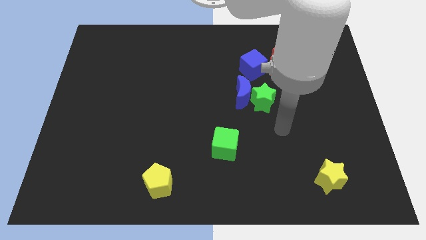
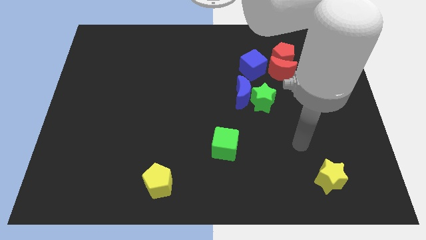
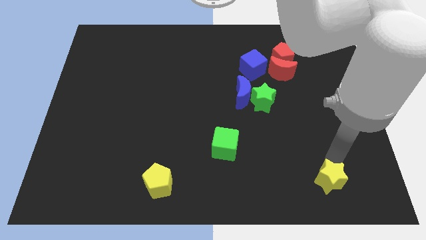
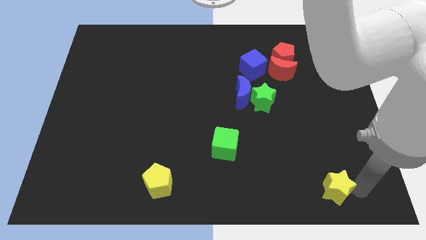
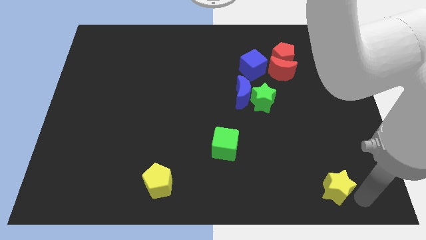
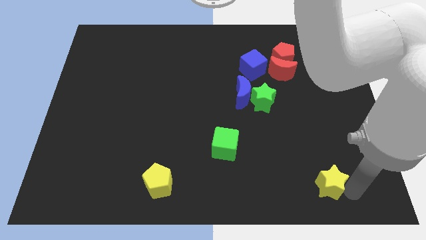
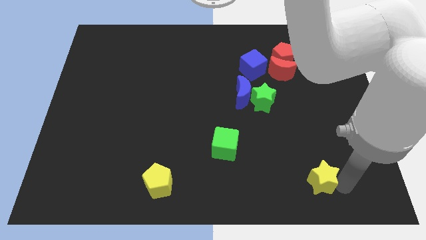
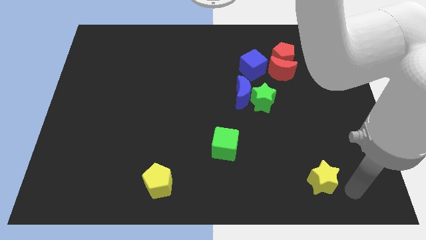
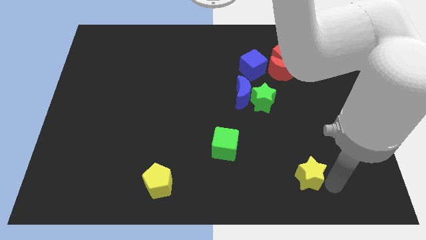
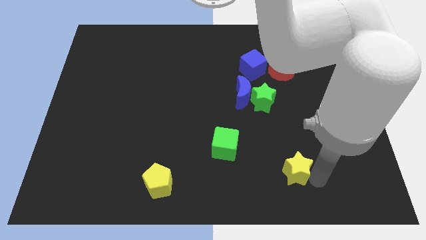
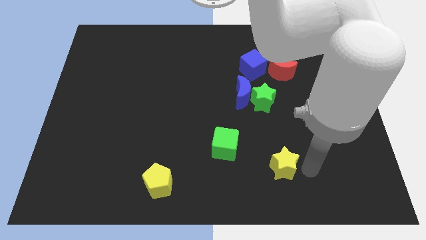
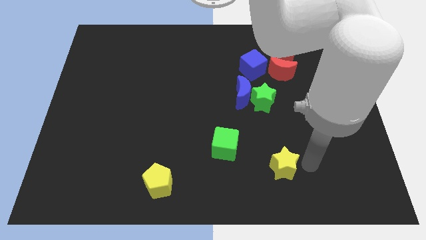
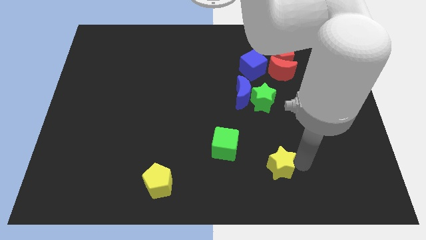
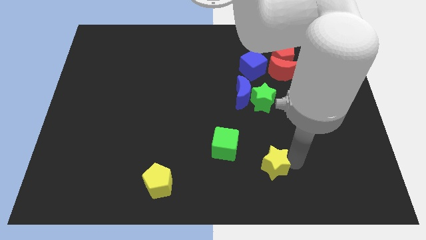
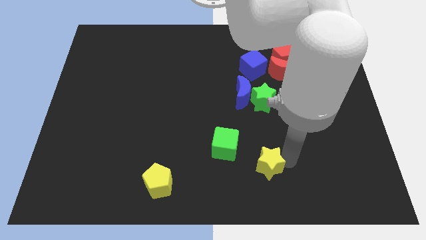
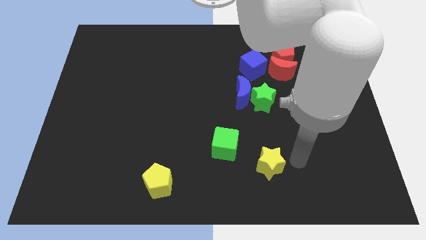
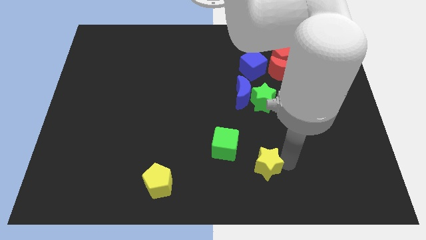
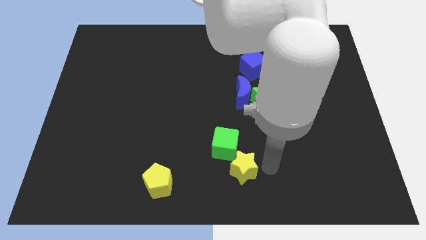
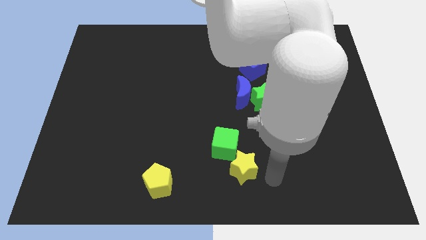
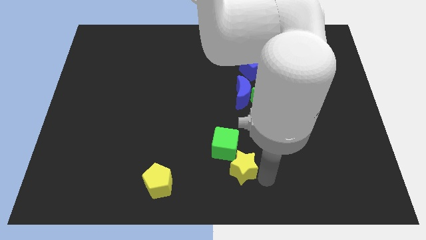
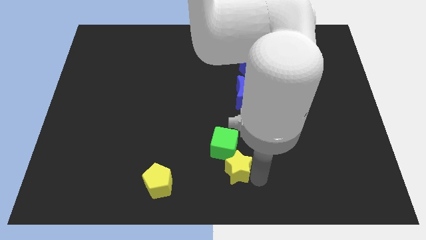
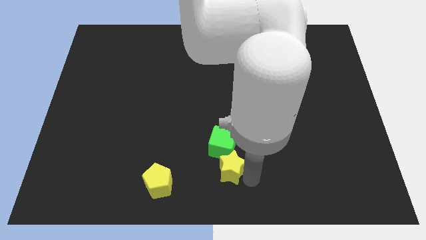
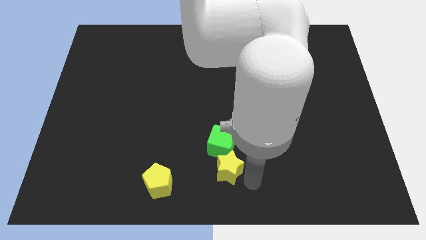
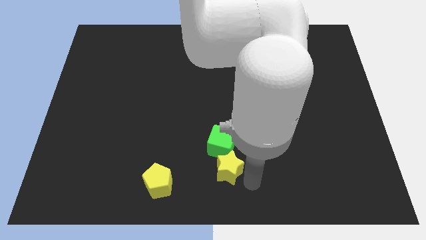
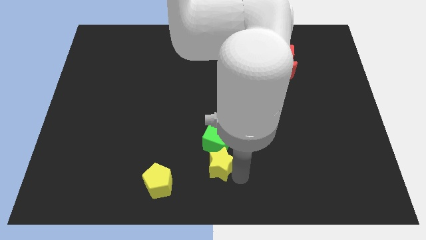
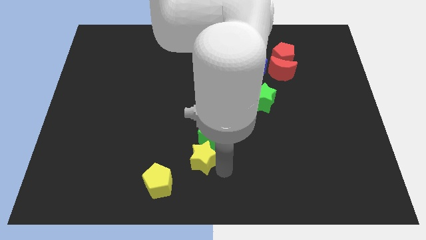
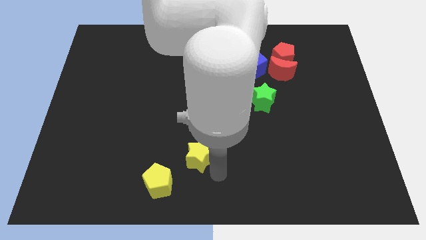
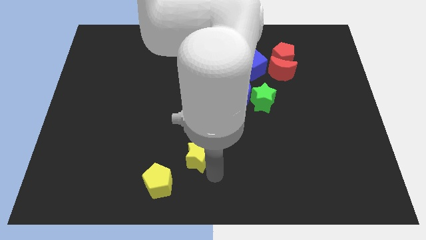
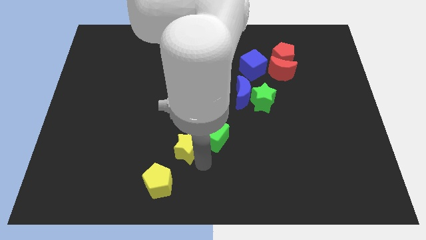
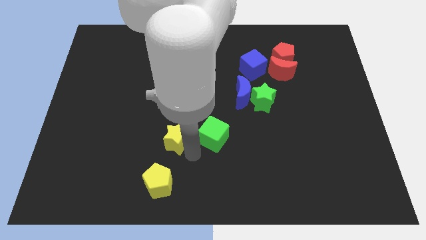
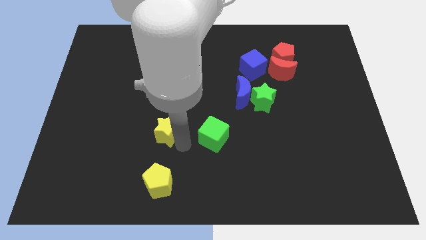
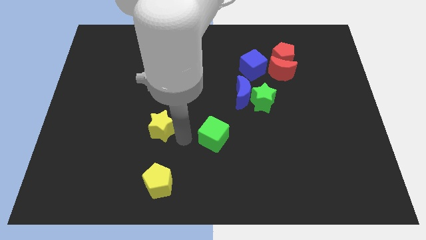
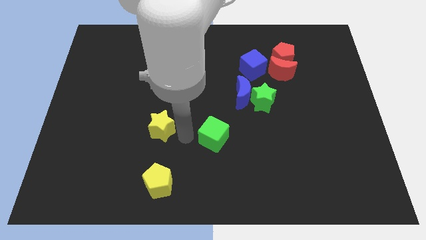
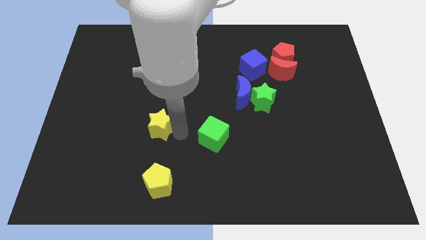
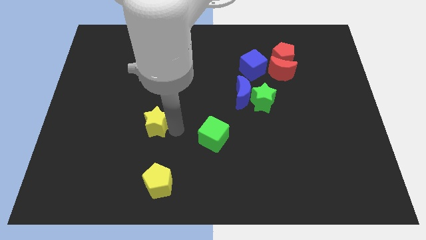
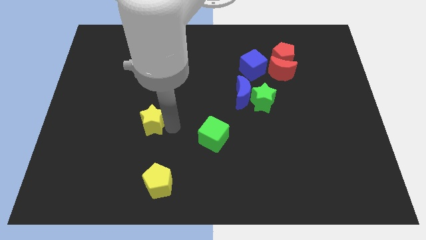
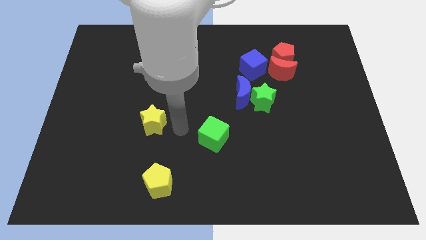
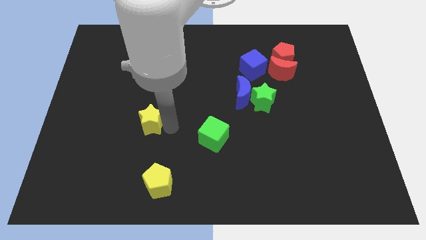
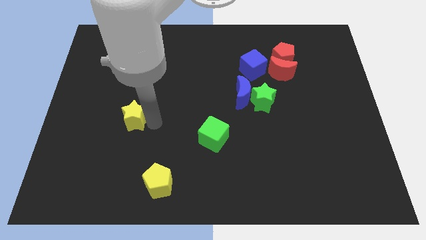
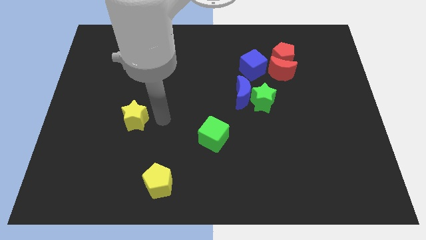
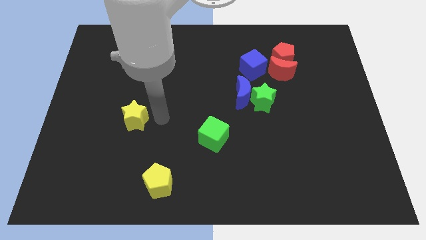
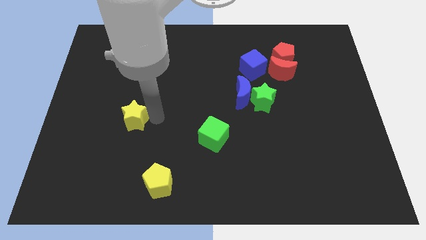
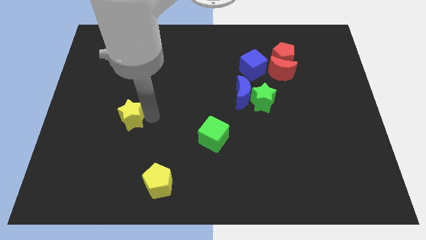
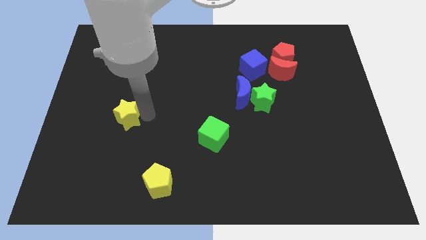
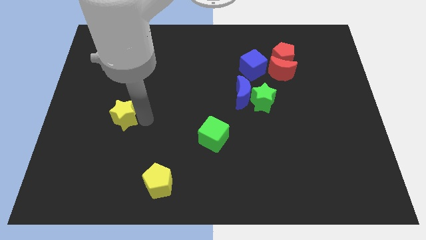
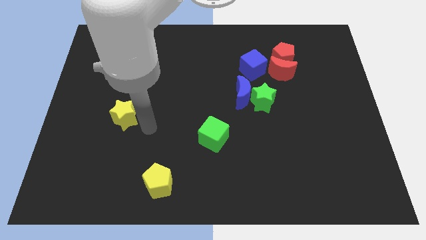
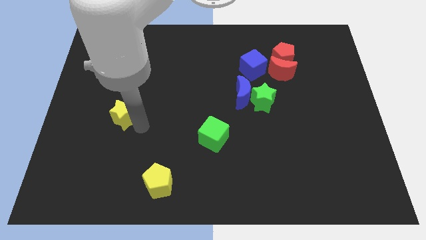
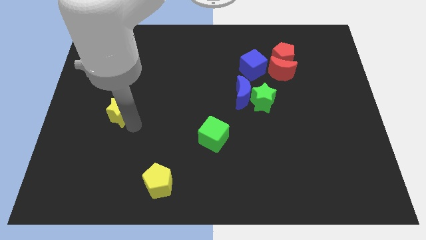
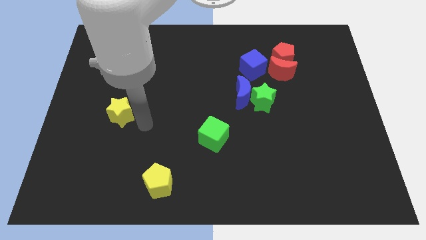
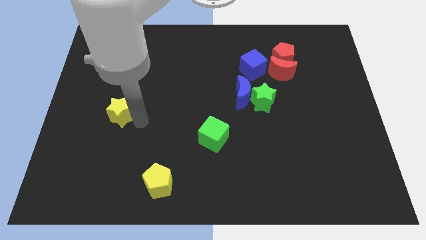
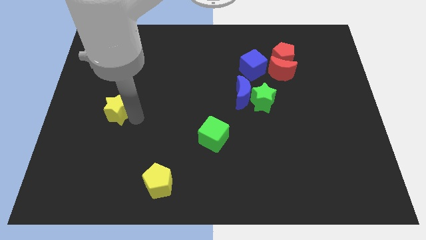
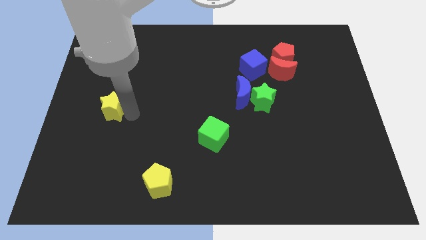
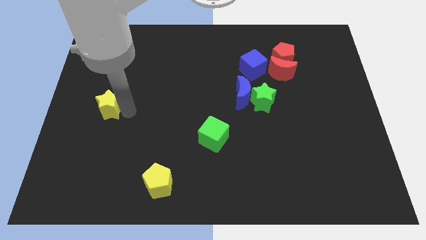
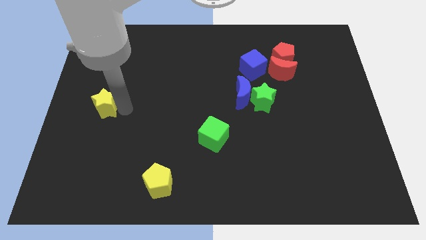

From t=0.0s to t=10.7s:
push the yellow star to the left side of the board

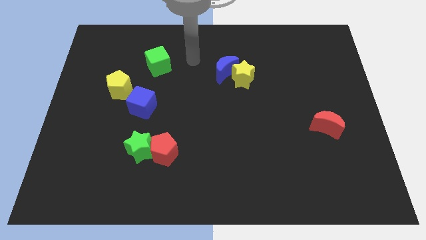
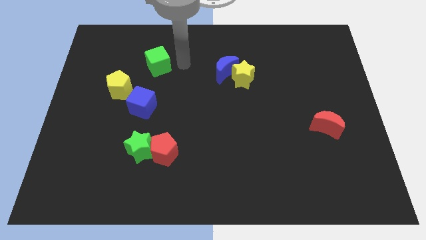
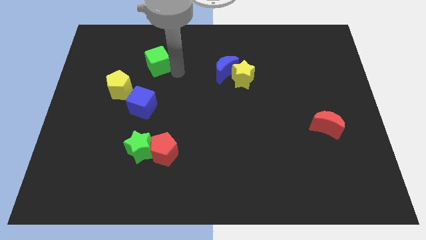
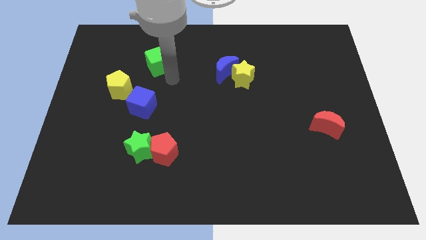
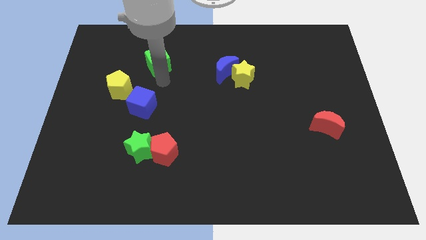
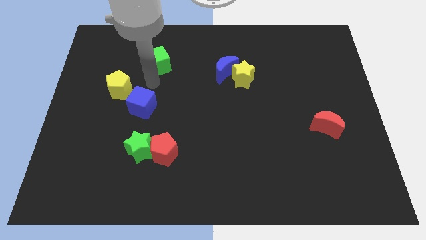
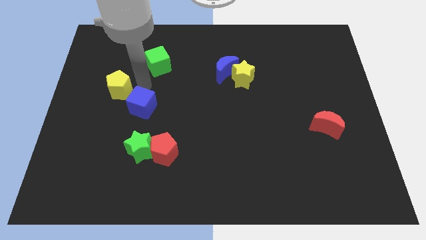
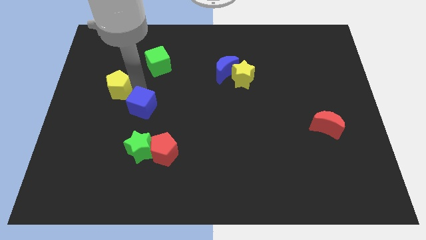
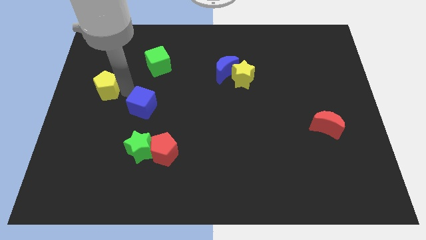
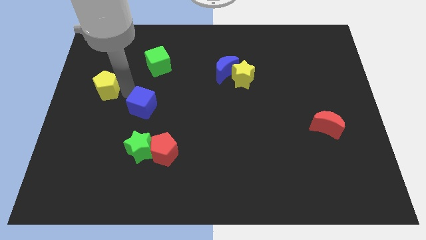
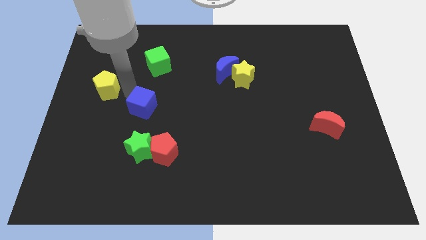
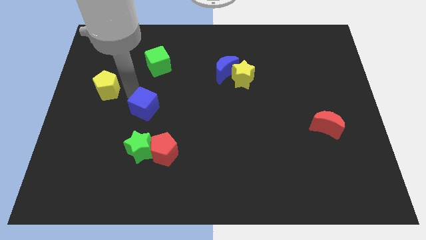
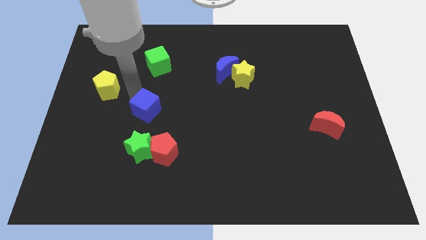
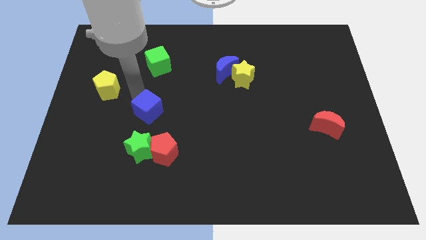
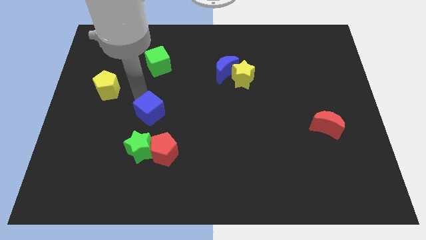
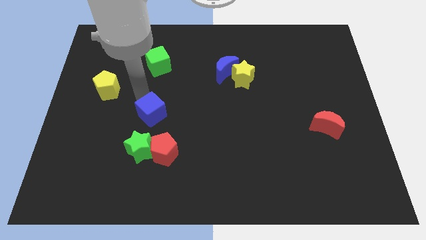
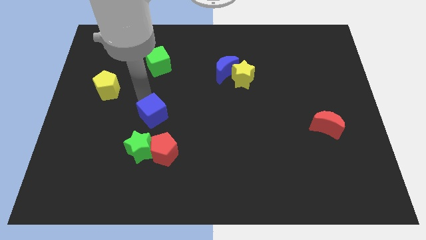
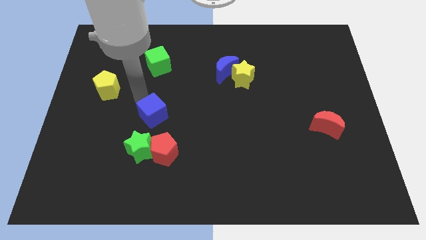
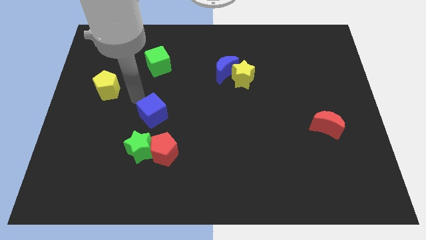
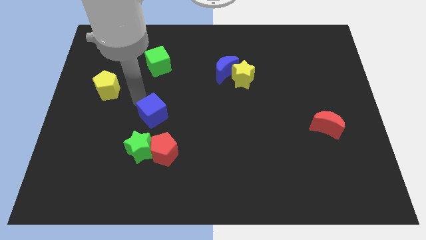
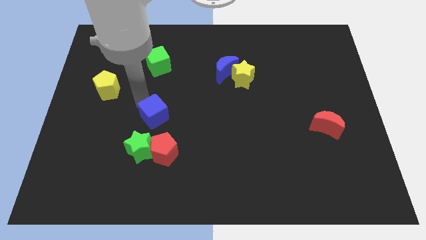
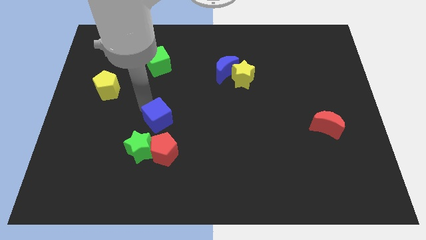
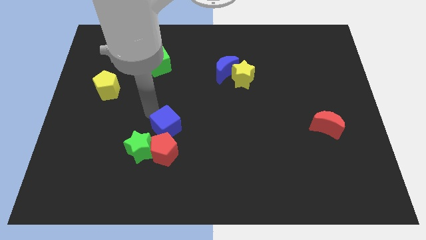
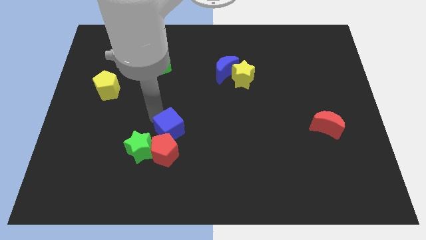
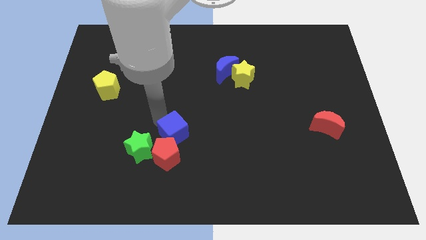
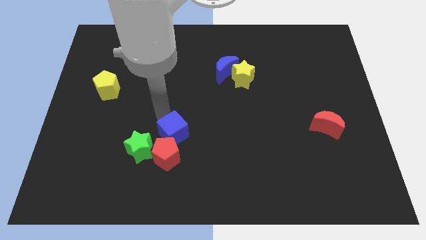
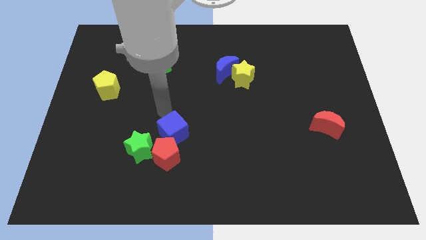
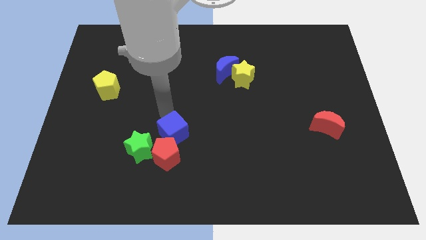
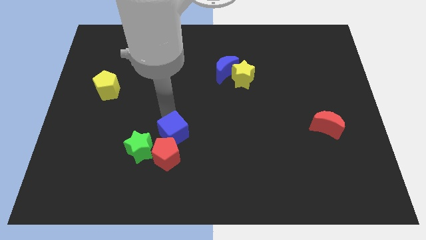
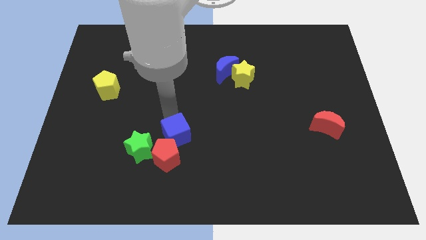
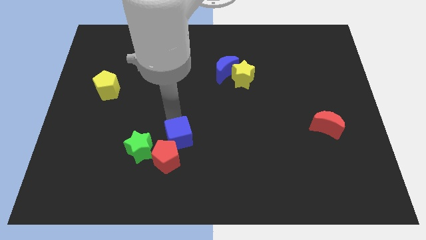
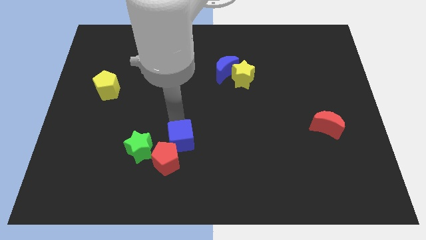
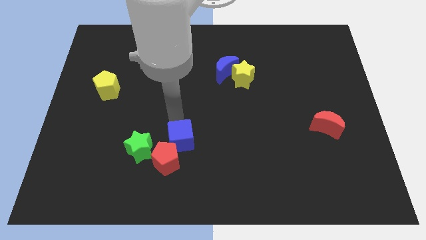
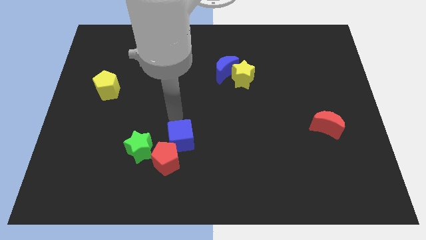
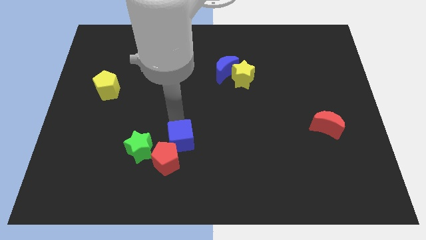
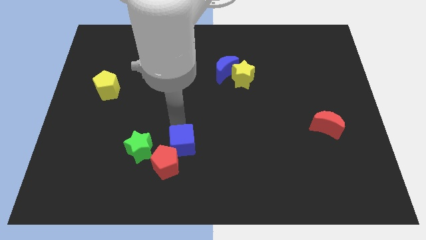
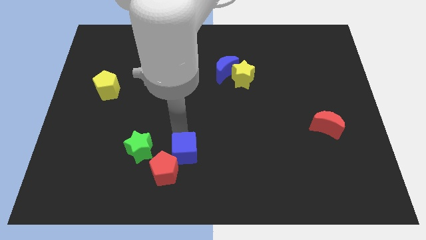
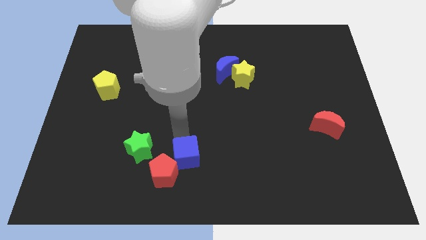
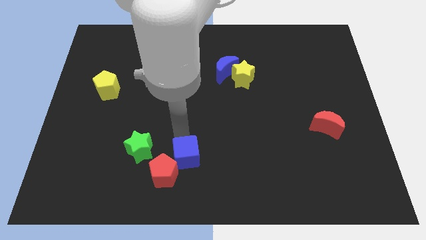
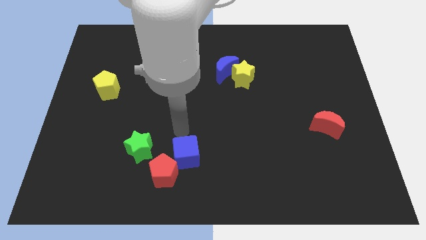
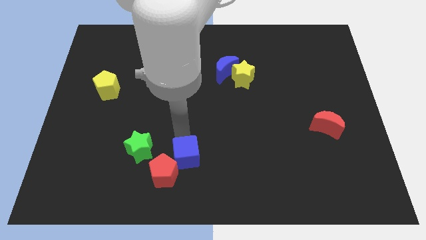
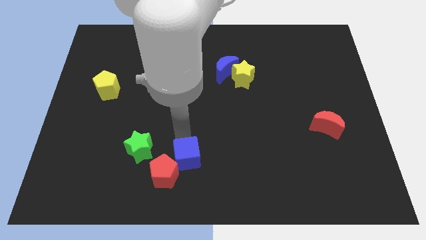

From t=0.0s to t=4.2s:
slide the blue cube to the bottom side
